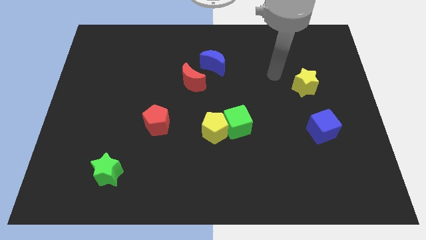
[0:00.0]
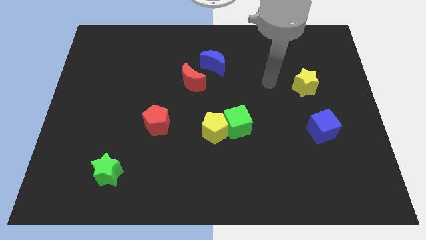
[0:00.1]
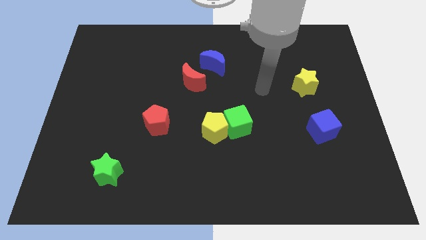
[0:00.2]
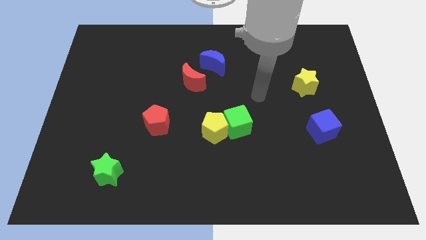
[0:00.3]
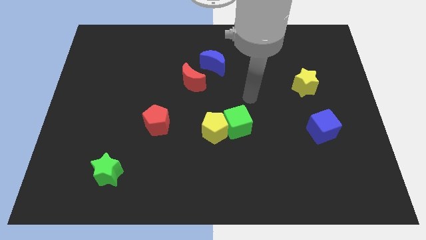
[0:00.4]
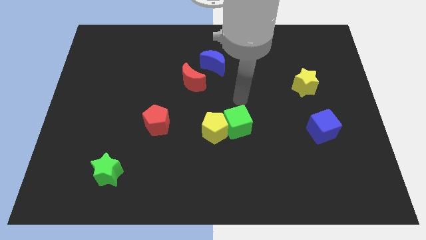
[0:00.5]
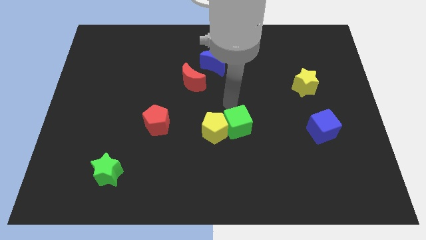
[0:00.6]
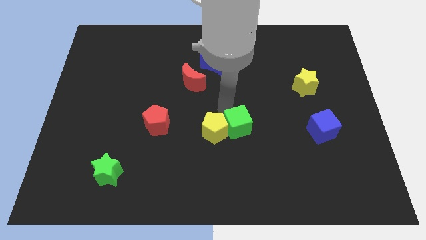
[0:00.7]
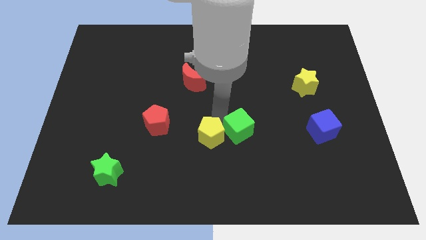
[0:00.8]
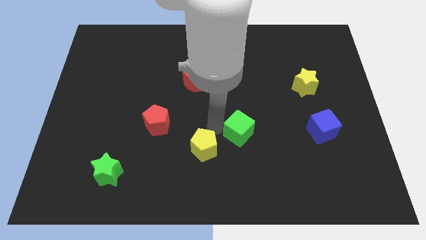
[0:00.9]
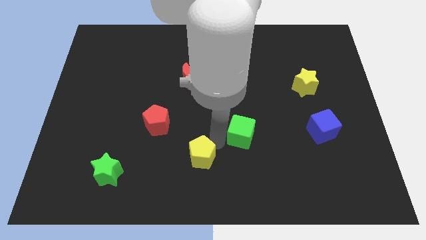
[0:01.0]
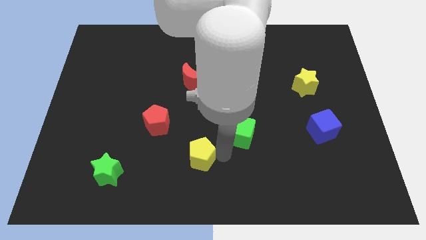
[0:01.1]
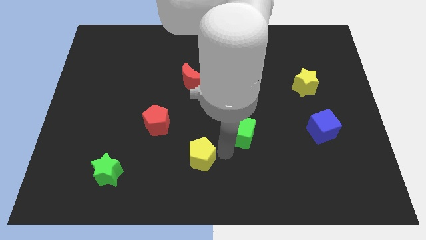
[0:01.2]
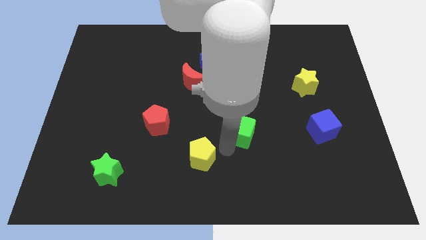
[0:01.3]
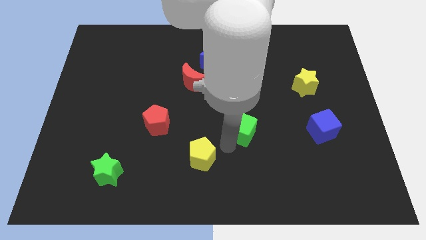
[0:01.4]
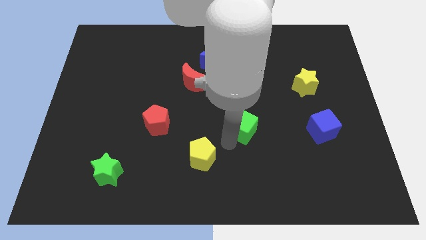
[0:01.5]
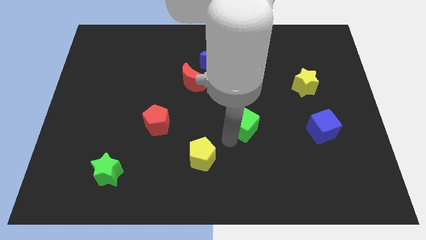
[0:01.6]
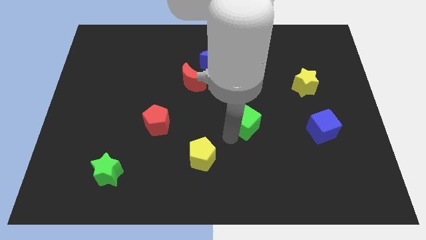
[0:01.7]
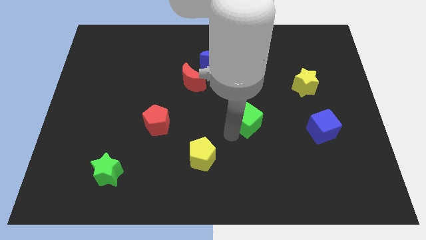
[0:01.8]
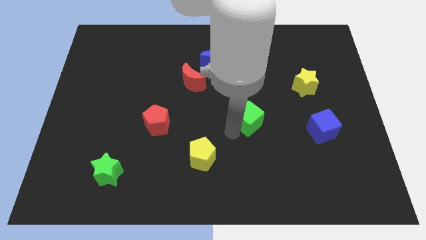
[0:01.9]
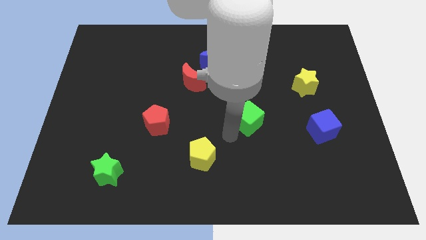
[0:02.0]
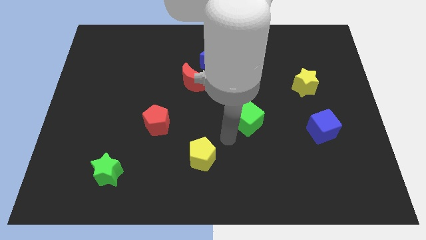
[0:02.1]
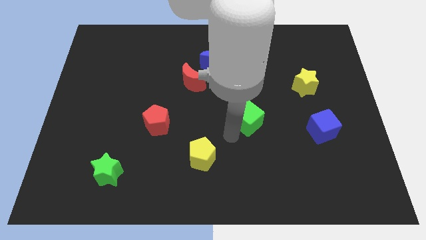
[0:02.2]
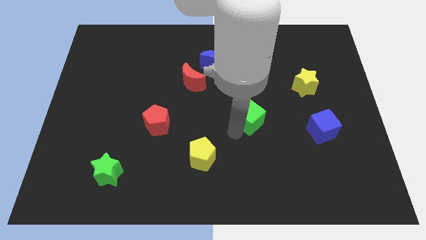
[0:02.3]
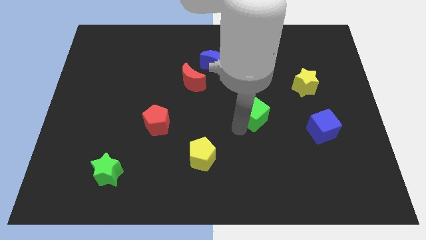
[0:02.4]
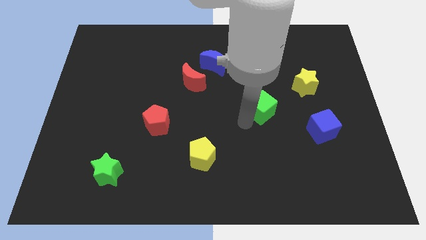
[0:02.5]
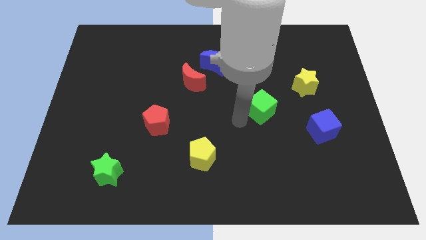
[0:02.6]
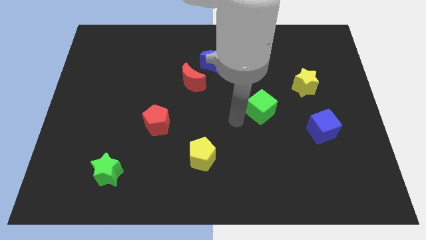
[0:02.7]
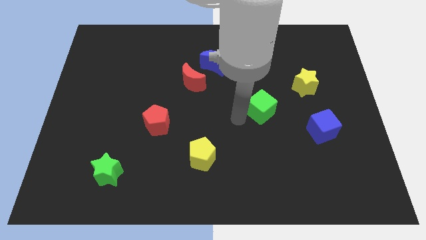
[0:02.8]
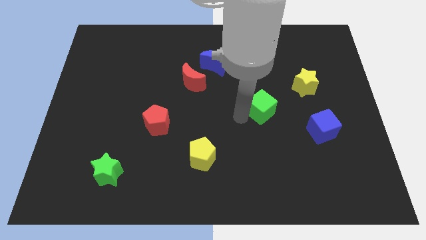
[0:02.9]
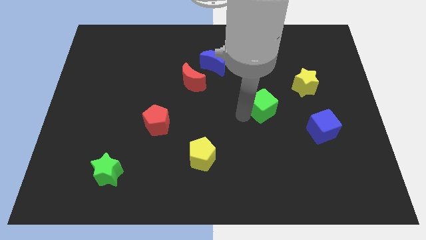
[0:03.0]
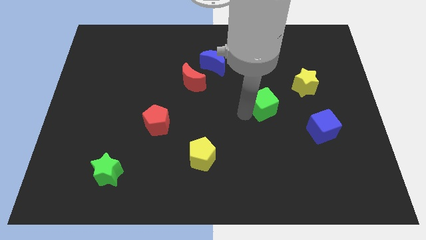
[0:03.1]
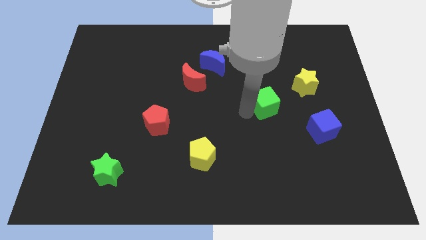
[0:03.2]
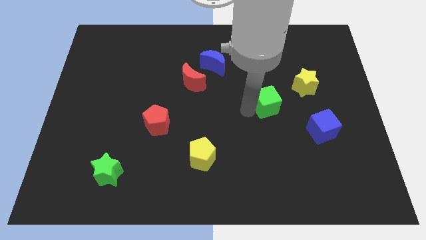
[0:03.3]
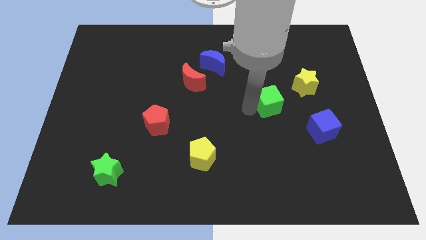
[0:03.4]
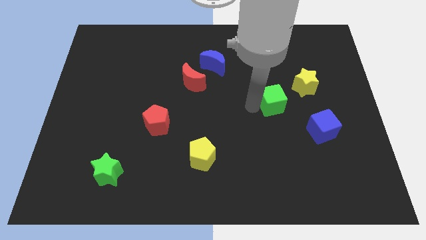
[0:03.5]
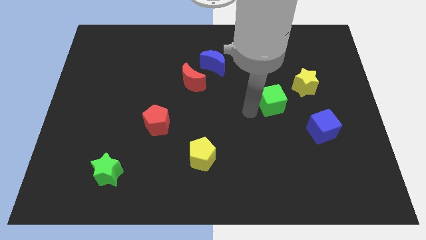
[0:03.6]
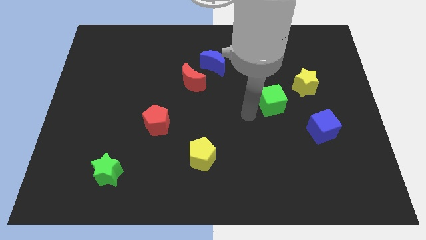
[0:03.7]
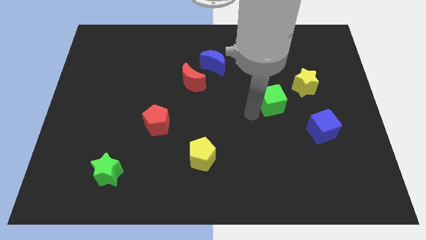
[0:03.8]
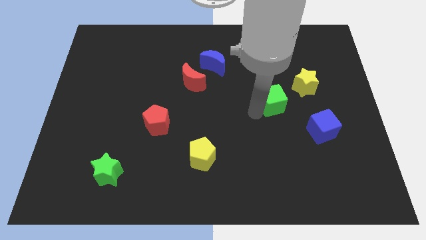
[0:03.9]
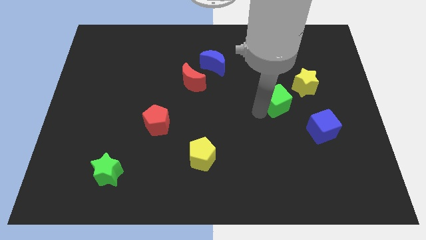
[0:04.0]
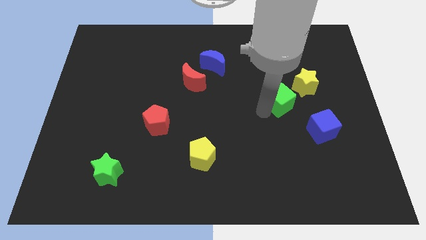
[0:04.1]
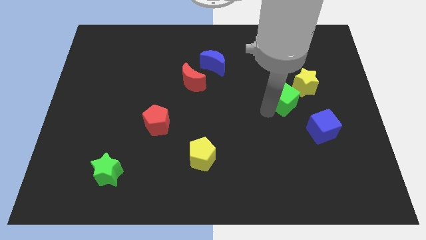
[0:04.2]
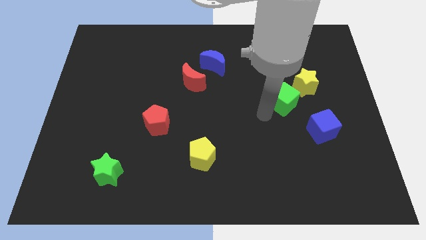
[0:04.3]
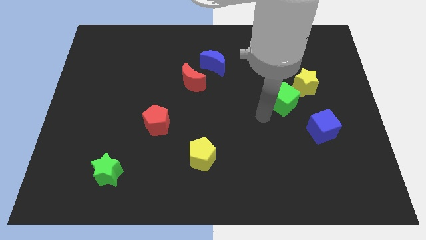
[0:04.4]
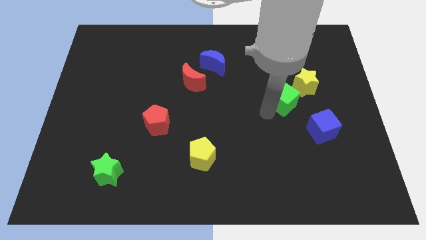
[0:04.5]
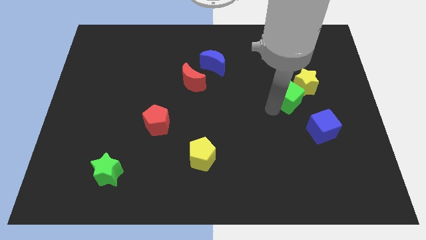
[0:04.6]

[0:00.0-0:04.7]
put the green cube close to the yellow star

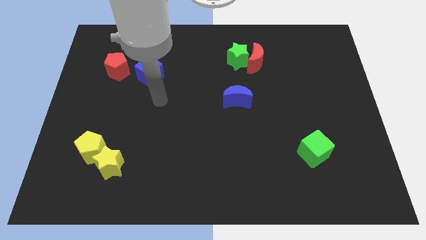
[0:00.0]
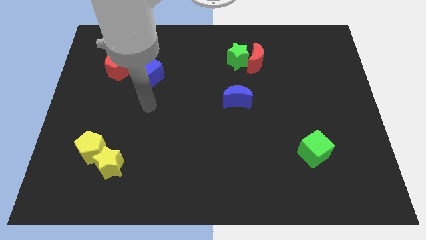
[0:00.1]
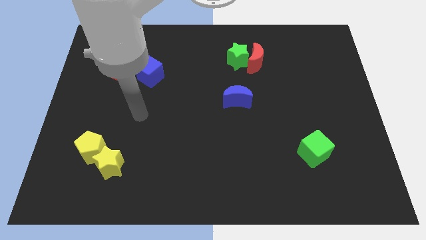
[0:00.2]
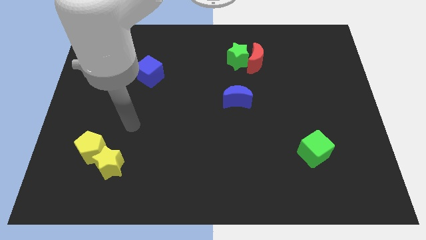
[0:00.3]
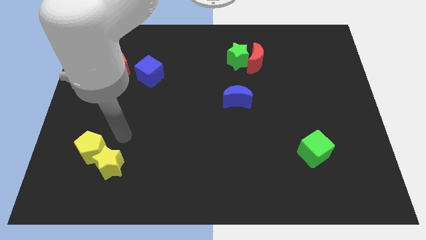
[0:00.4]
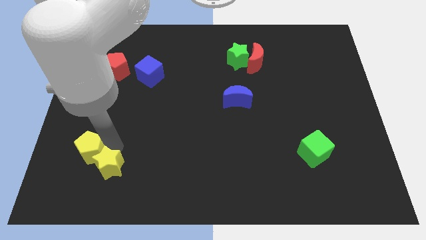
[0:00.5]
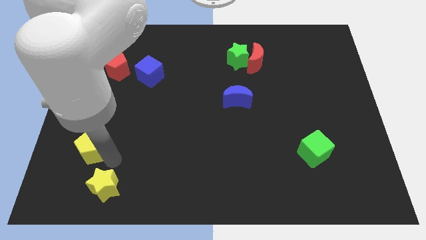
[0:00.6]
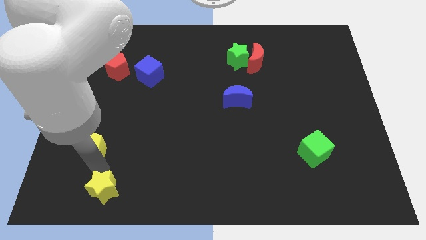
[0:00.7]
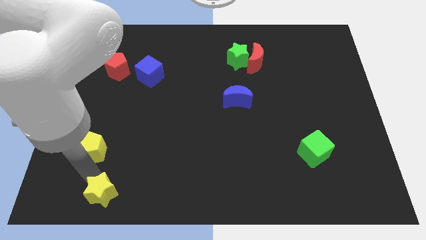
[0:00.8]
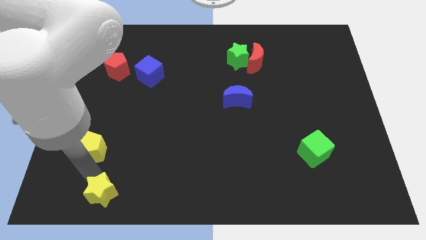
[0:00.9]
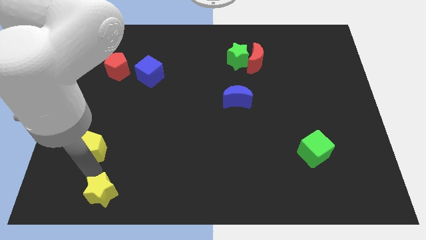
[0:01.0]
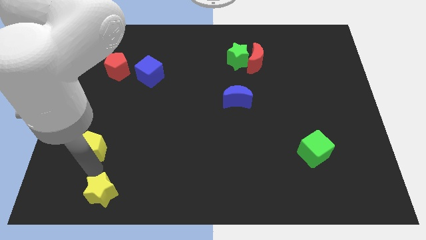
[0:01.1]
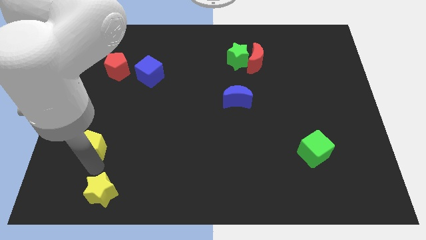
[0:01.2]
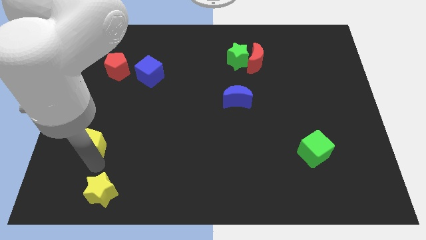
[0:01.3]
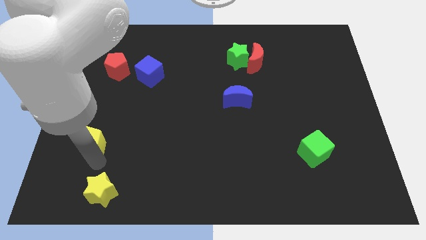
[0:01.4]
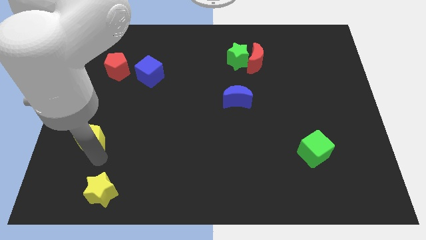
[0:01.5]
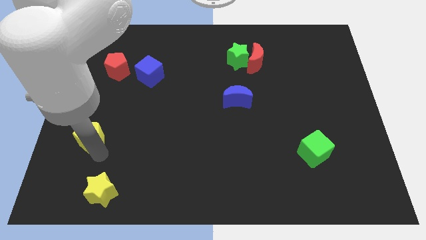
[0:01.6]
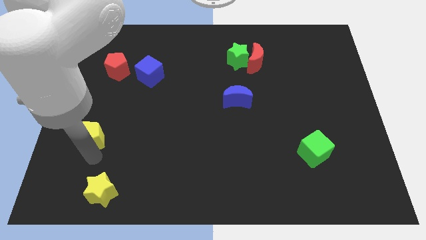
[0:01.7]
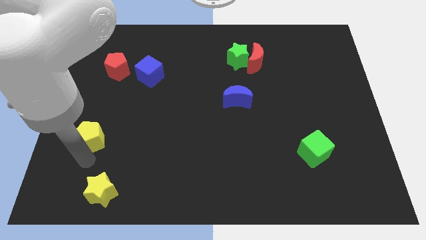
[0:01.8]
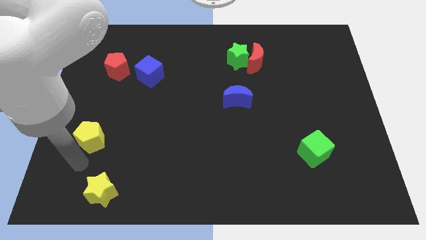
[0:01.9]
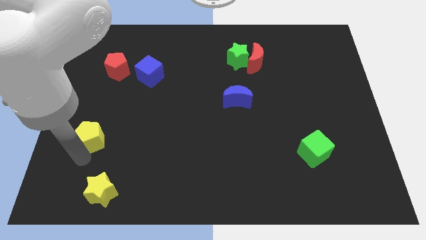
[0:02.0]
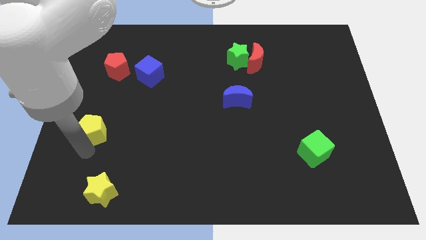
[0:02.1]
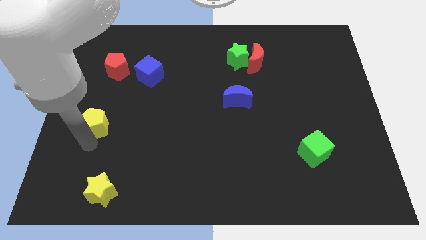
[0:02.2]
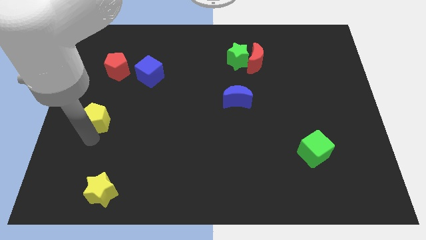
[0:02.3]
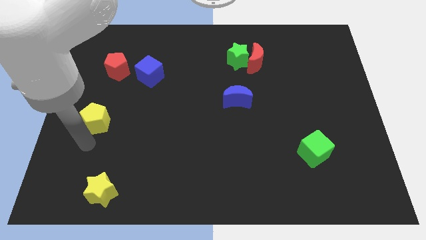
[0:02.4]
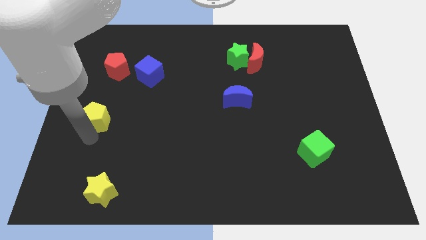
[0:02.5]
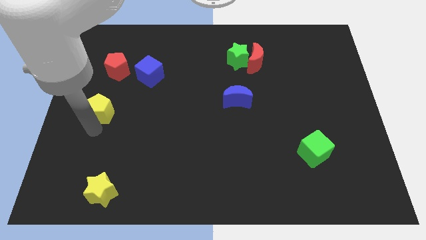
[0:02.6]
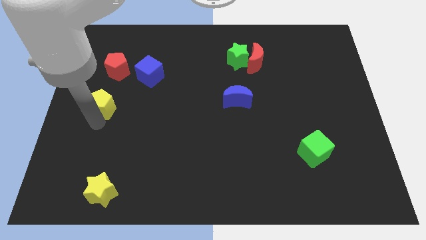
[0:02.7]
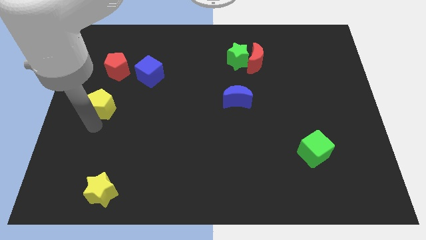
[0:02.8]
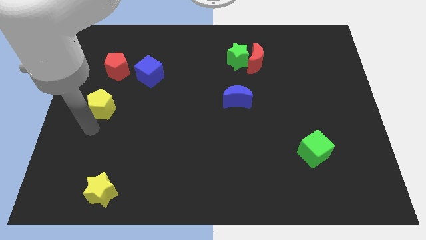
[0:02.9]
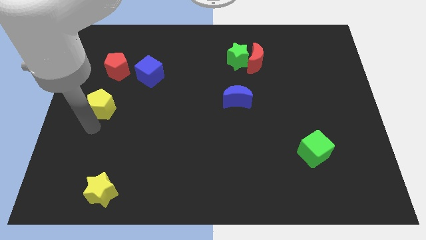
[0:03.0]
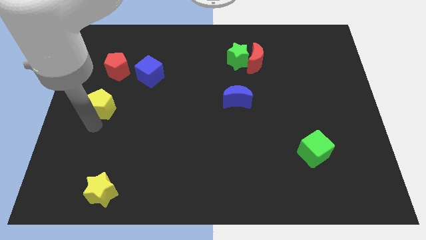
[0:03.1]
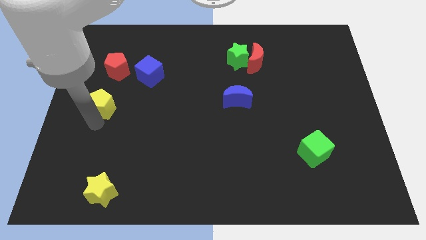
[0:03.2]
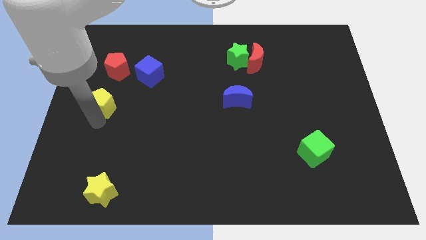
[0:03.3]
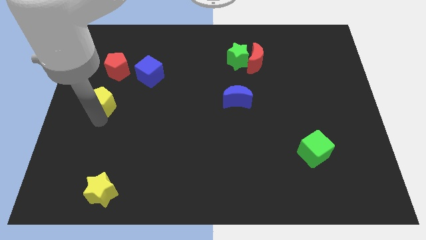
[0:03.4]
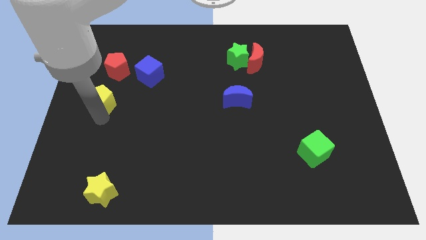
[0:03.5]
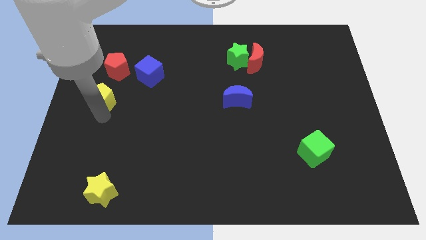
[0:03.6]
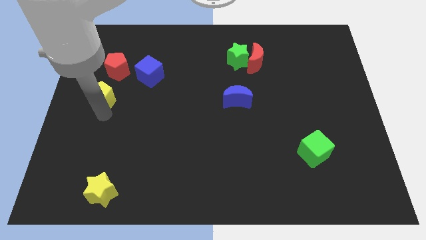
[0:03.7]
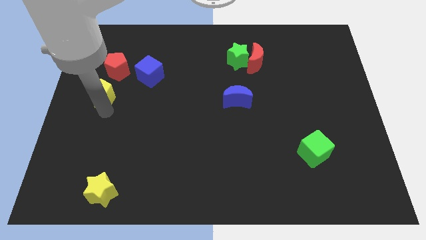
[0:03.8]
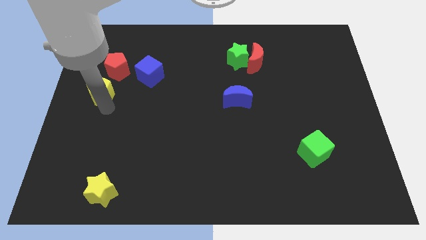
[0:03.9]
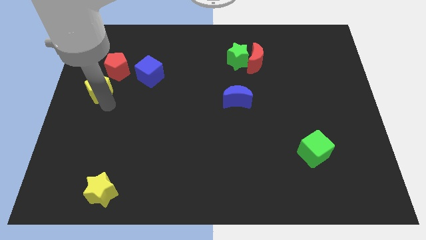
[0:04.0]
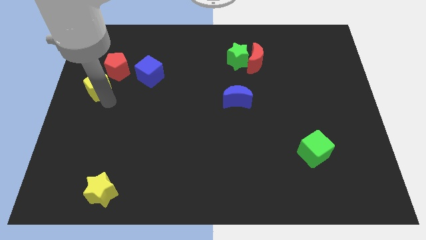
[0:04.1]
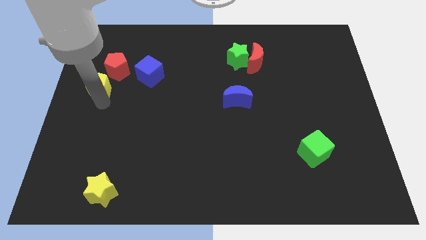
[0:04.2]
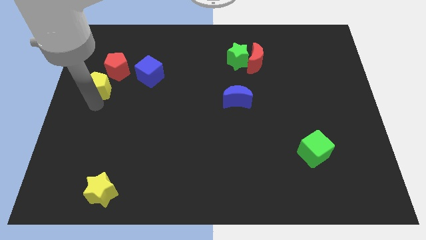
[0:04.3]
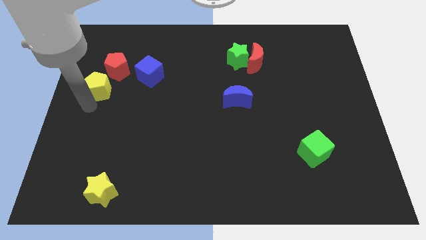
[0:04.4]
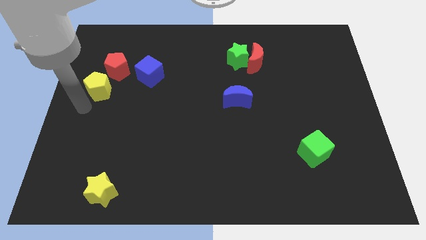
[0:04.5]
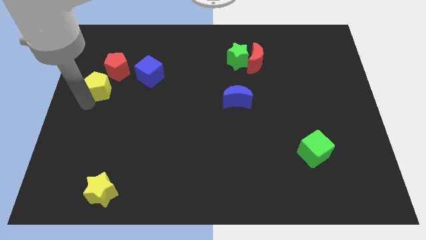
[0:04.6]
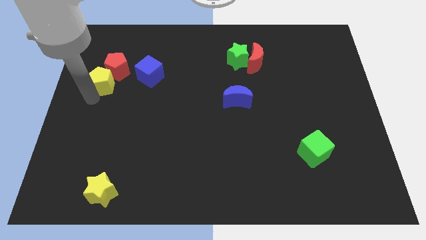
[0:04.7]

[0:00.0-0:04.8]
slide the yellow pentagon next to the red pentagon
